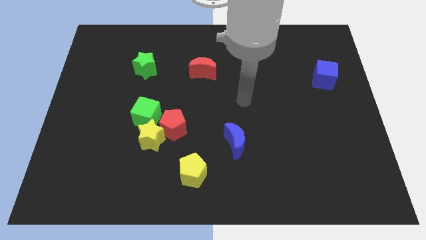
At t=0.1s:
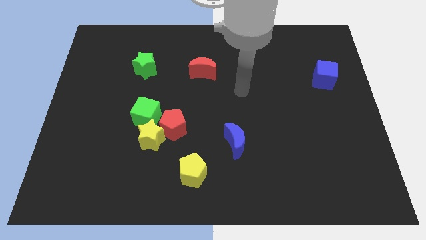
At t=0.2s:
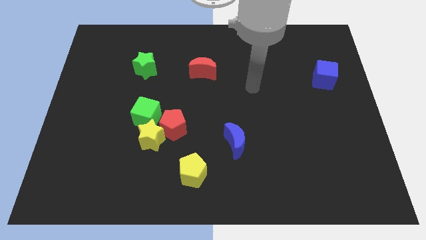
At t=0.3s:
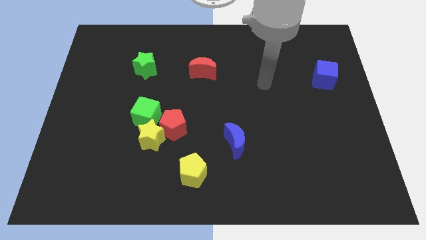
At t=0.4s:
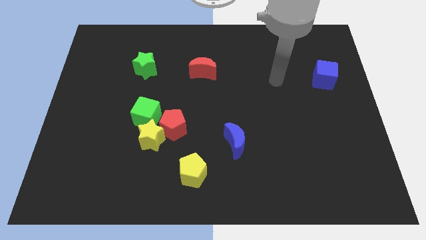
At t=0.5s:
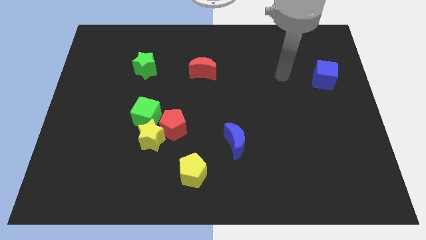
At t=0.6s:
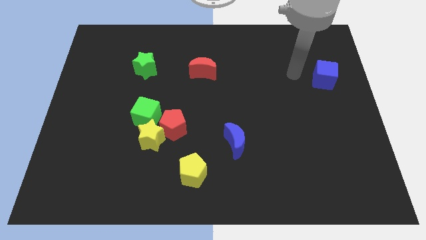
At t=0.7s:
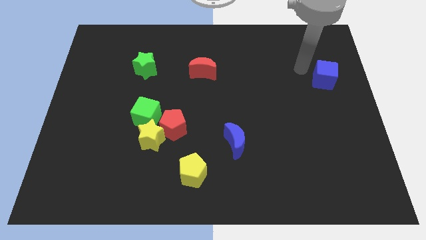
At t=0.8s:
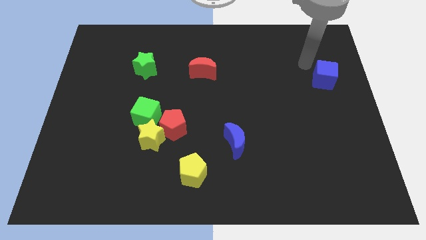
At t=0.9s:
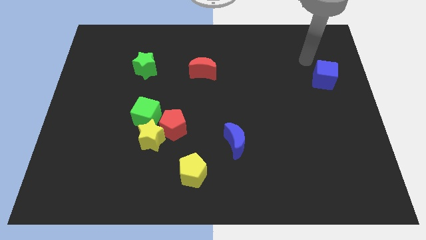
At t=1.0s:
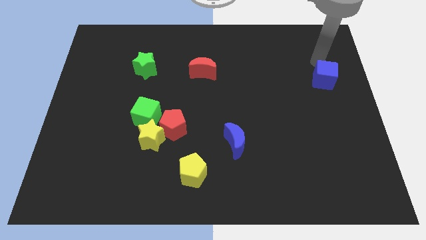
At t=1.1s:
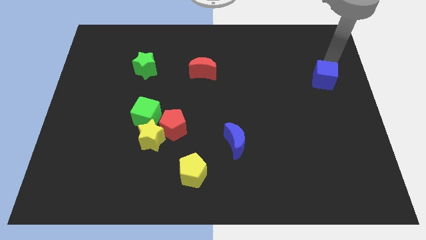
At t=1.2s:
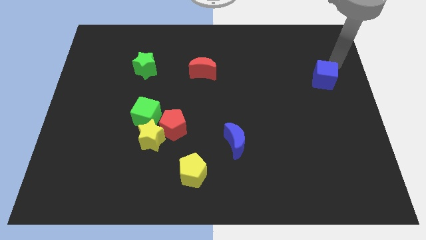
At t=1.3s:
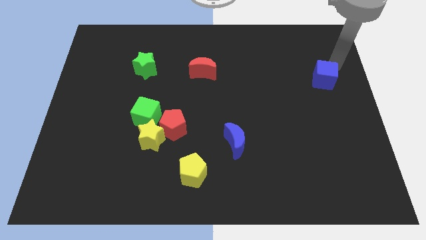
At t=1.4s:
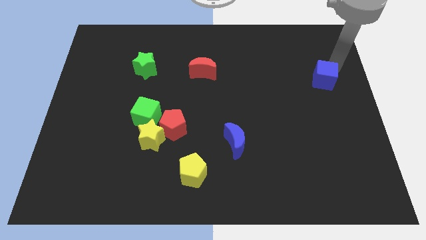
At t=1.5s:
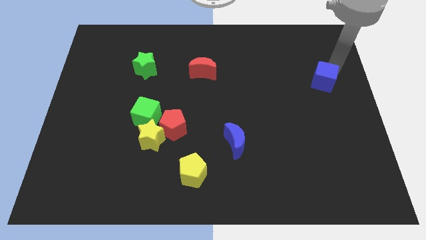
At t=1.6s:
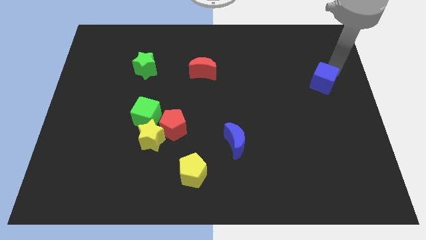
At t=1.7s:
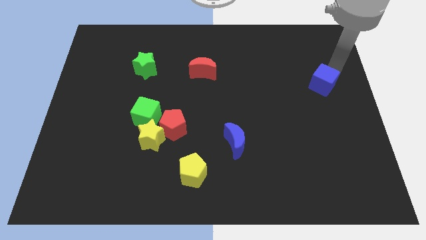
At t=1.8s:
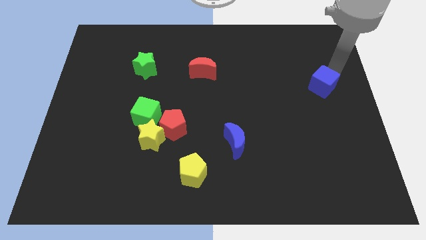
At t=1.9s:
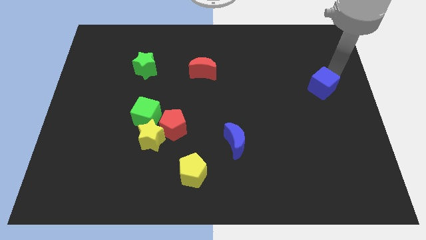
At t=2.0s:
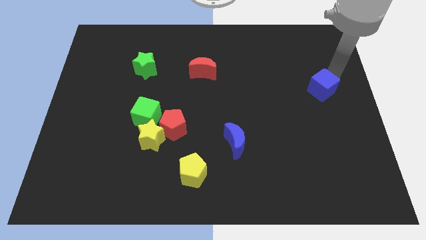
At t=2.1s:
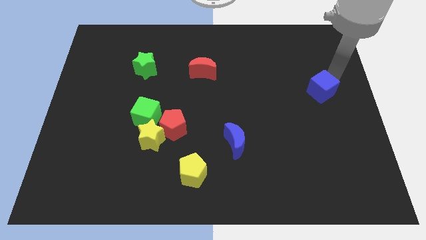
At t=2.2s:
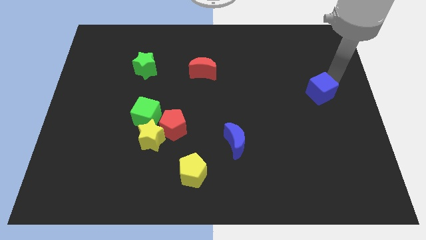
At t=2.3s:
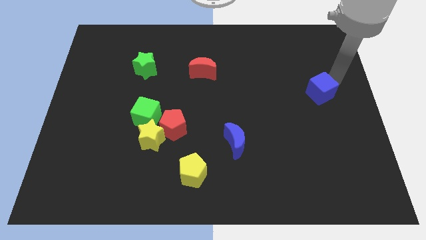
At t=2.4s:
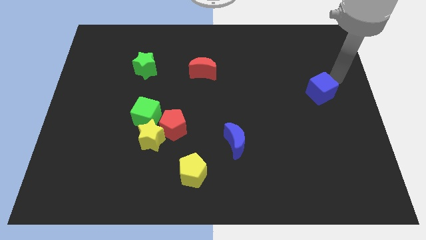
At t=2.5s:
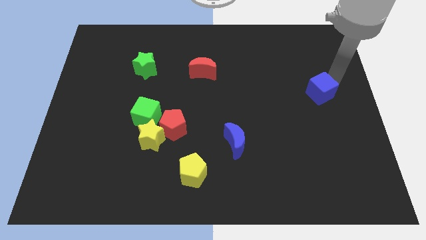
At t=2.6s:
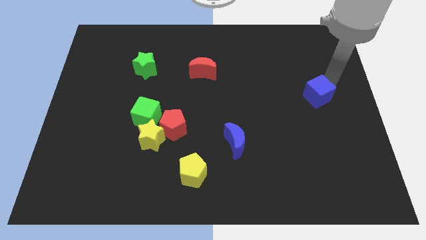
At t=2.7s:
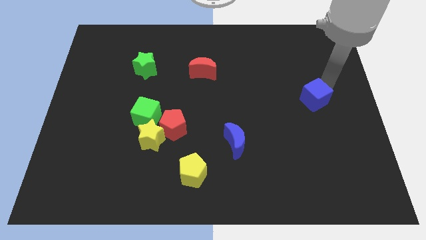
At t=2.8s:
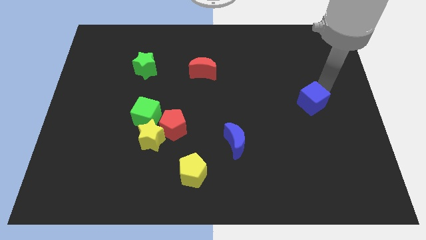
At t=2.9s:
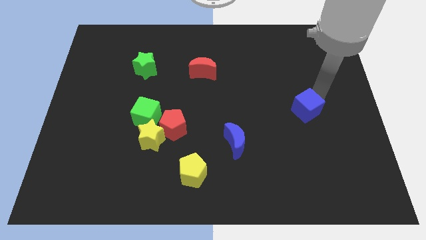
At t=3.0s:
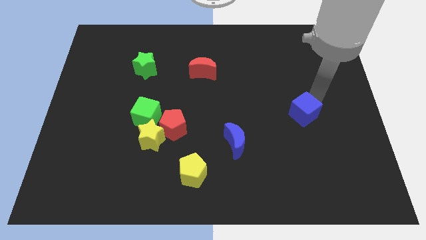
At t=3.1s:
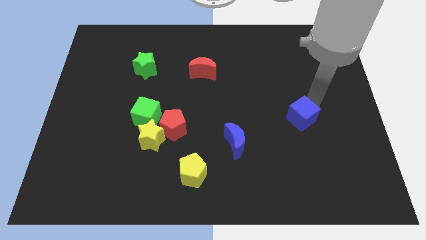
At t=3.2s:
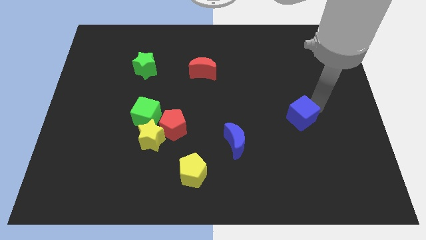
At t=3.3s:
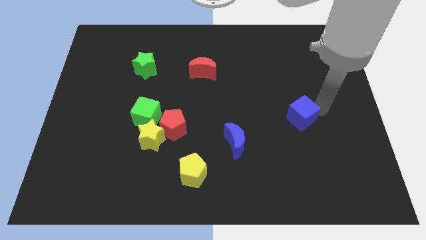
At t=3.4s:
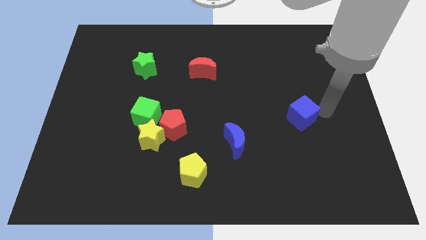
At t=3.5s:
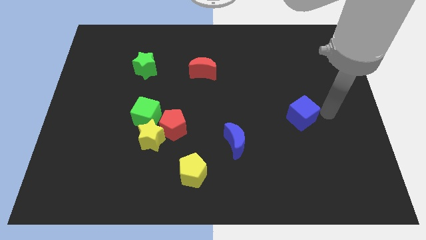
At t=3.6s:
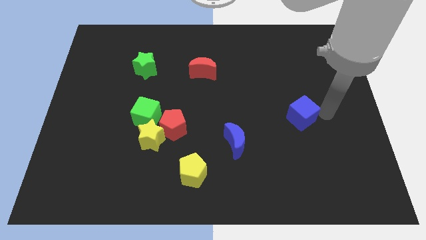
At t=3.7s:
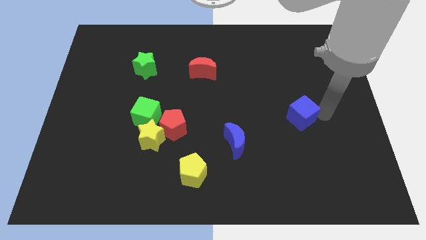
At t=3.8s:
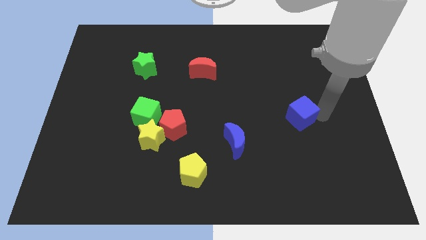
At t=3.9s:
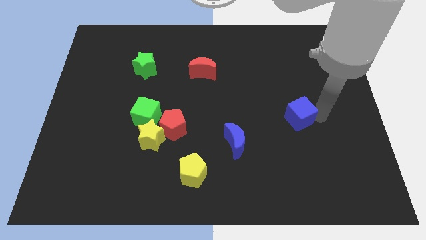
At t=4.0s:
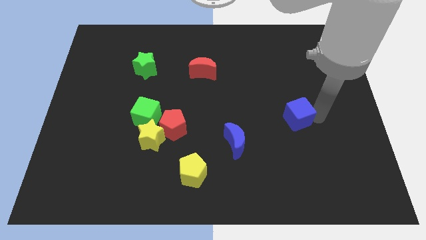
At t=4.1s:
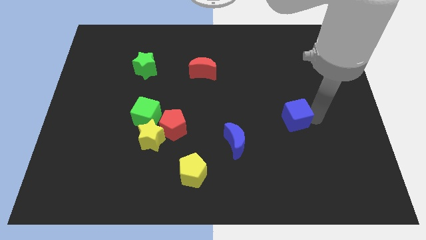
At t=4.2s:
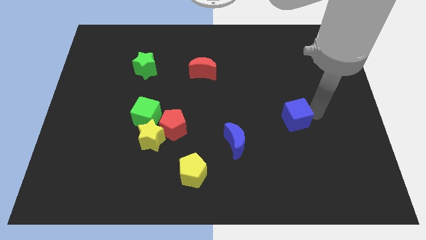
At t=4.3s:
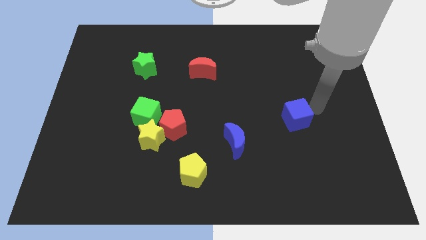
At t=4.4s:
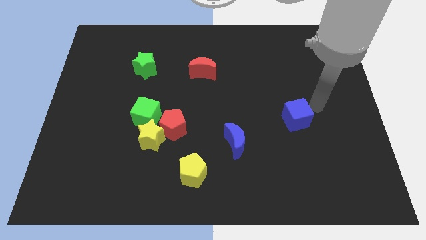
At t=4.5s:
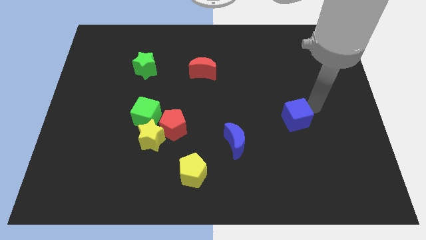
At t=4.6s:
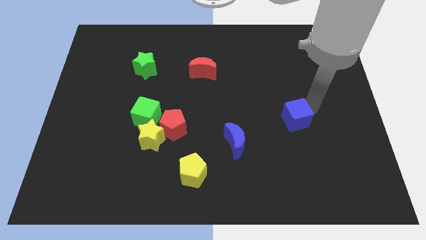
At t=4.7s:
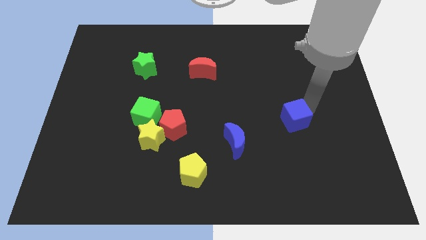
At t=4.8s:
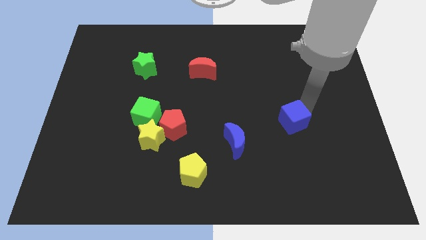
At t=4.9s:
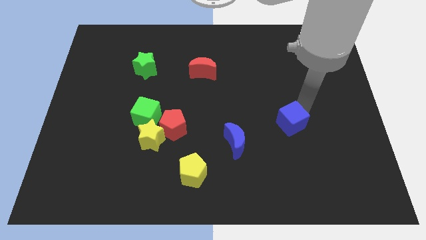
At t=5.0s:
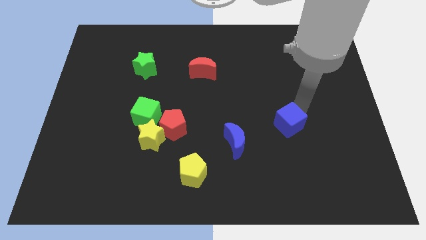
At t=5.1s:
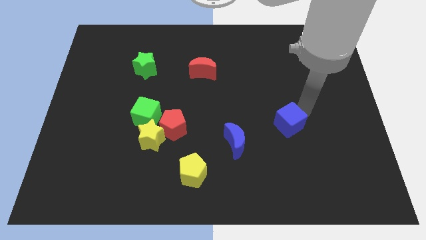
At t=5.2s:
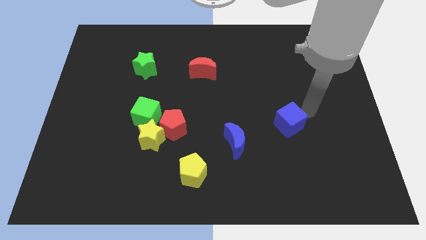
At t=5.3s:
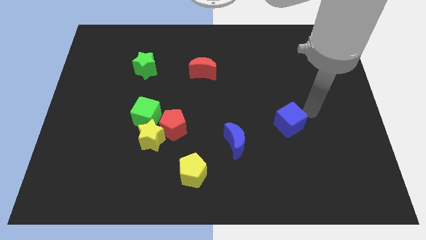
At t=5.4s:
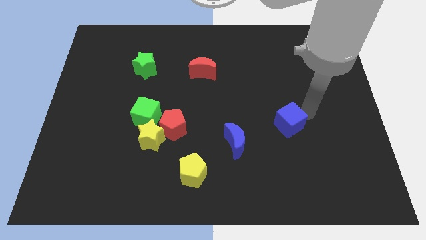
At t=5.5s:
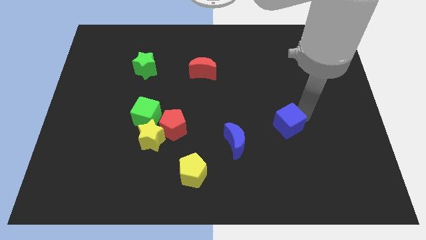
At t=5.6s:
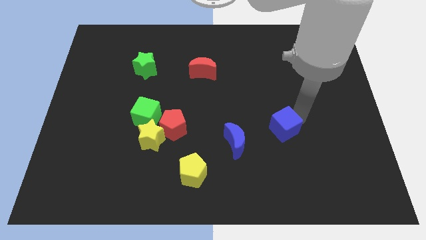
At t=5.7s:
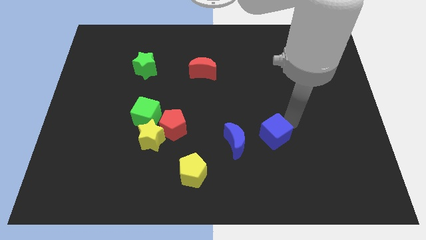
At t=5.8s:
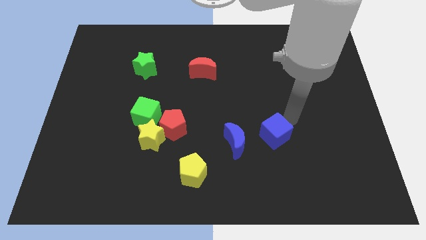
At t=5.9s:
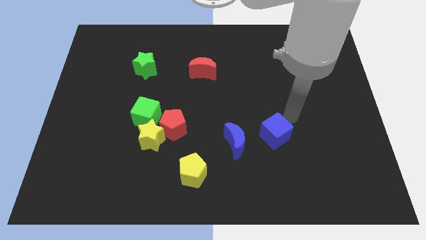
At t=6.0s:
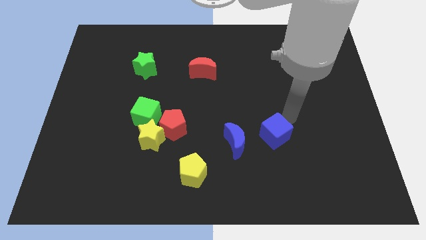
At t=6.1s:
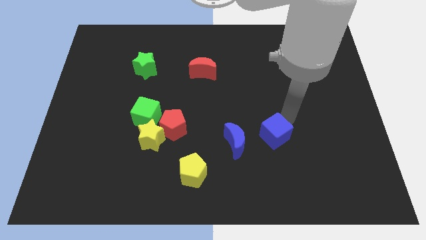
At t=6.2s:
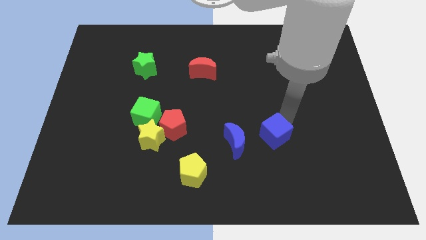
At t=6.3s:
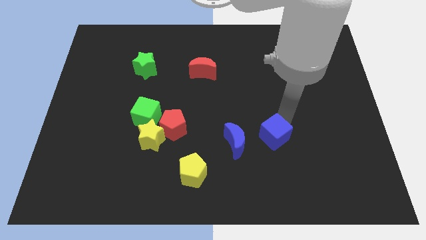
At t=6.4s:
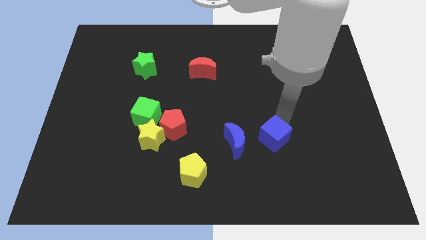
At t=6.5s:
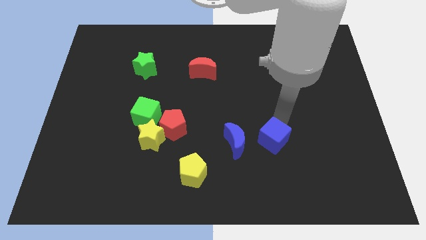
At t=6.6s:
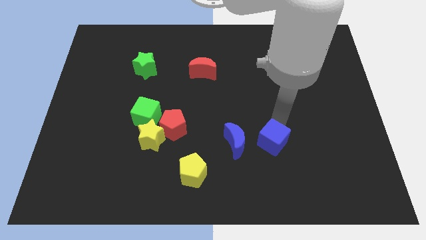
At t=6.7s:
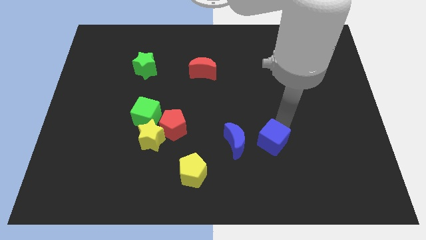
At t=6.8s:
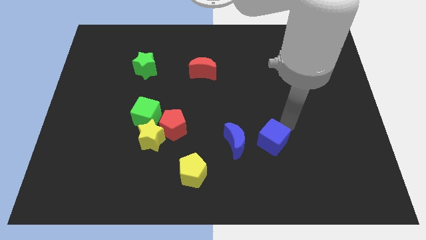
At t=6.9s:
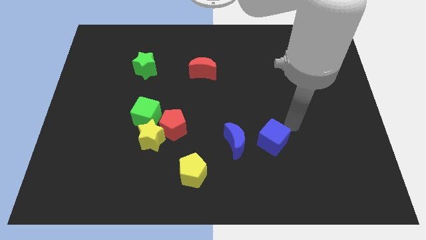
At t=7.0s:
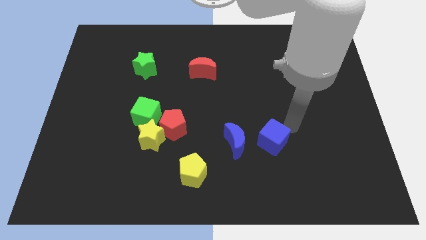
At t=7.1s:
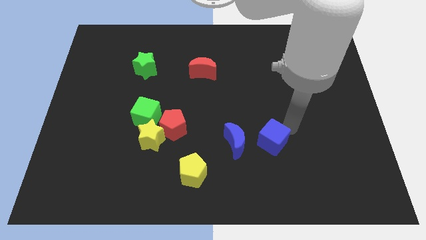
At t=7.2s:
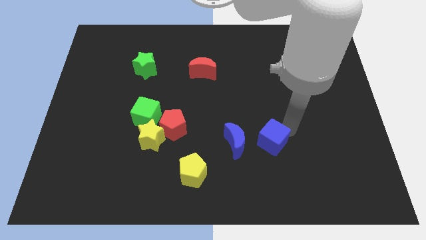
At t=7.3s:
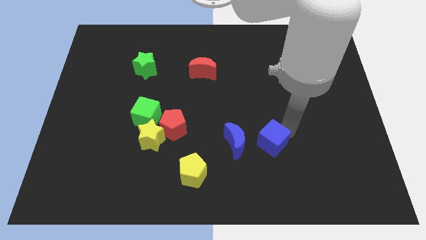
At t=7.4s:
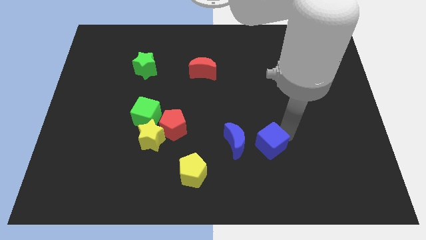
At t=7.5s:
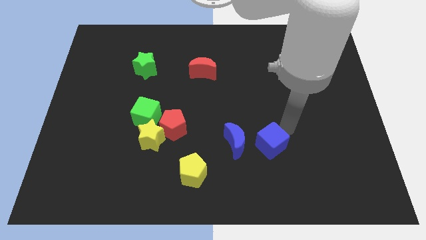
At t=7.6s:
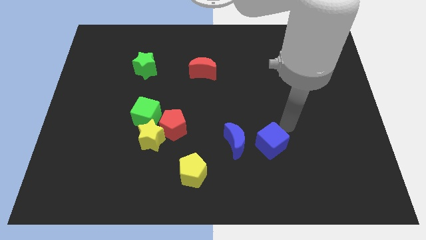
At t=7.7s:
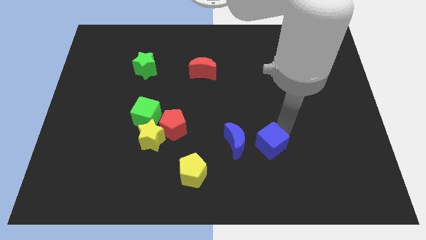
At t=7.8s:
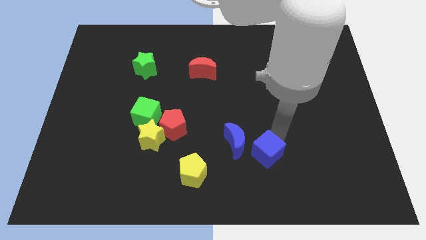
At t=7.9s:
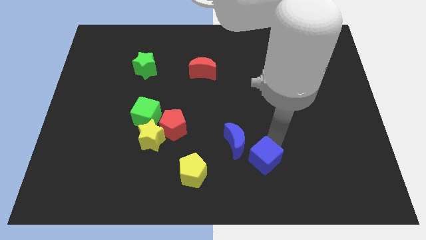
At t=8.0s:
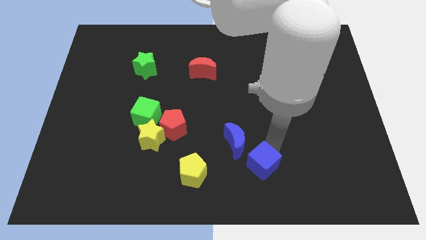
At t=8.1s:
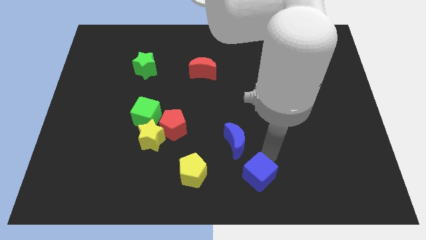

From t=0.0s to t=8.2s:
put the blue cube to the bottom side
